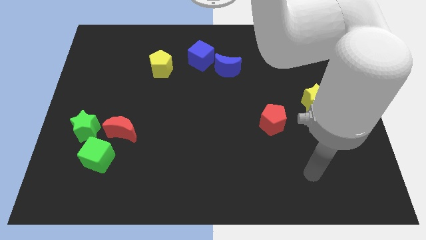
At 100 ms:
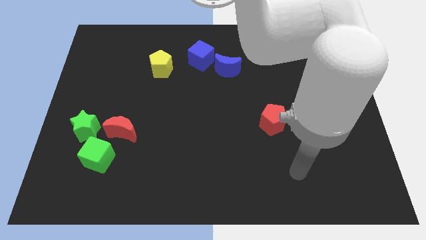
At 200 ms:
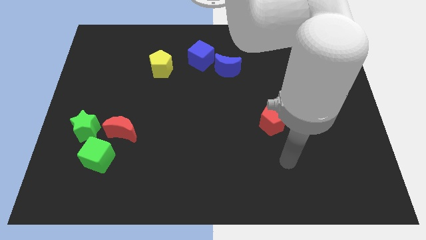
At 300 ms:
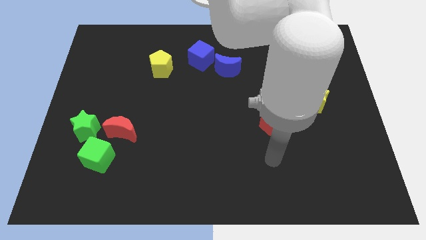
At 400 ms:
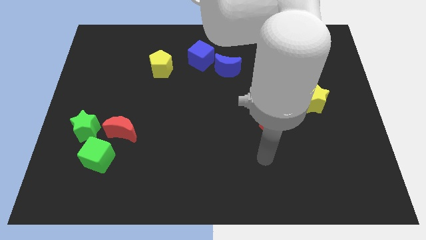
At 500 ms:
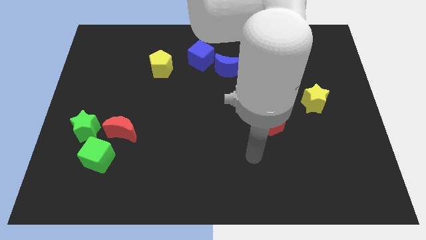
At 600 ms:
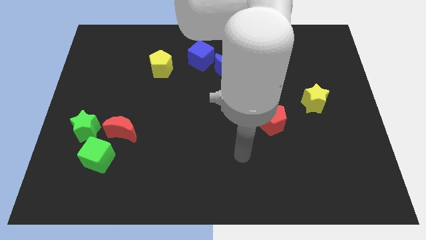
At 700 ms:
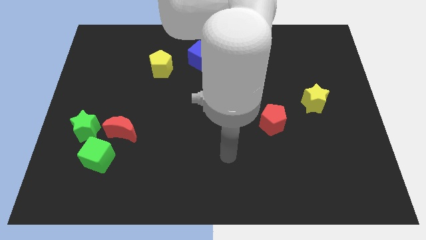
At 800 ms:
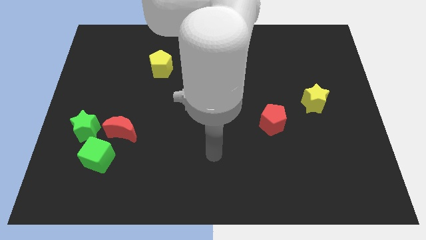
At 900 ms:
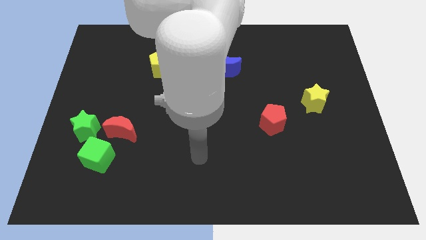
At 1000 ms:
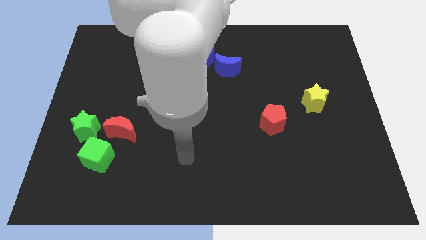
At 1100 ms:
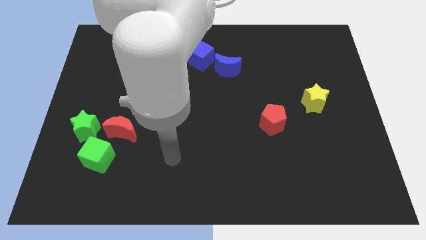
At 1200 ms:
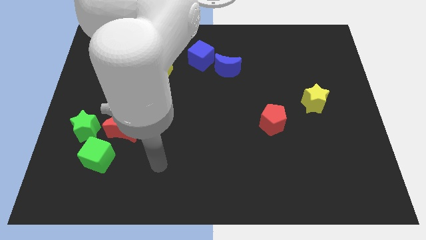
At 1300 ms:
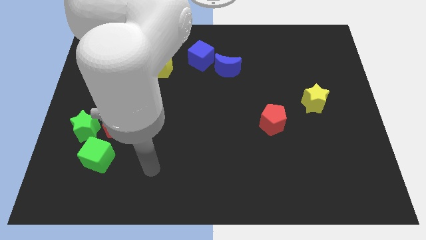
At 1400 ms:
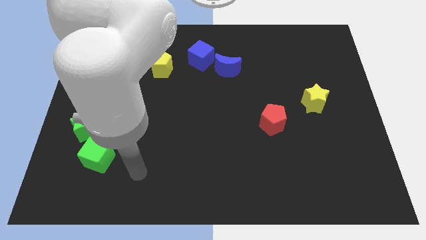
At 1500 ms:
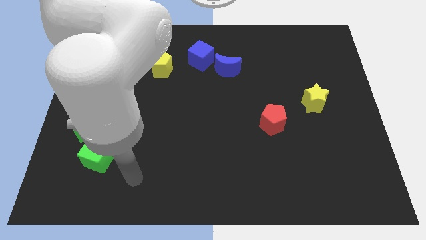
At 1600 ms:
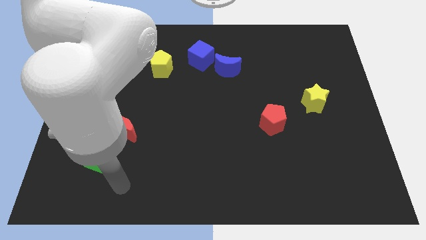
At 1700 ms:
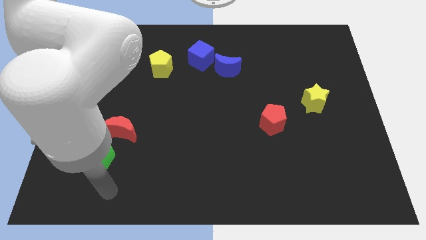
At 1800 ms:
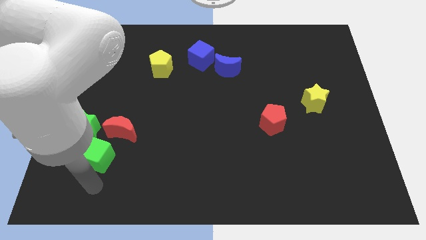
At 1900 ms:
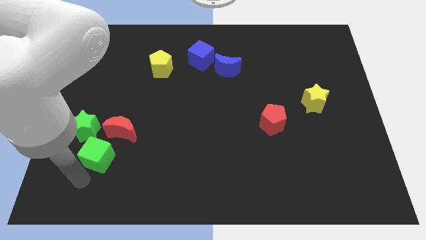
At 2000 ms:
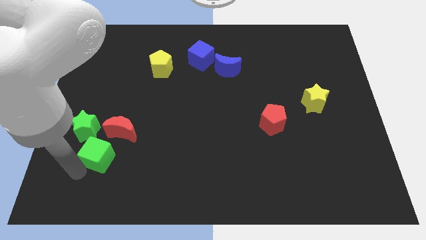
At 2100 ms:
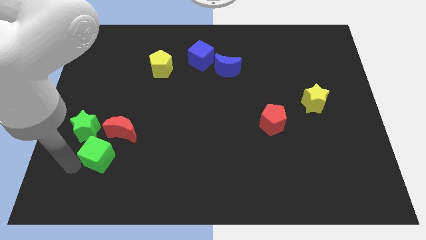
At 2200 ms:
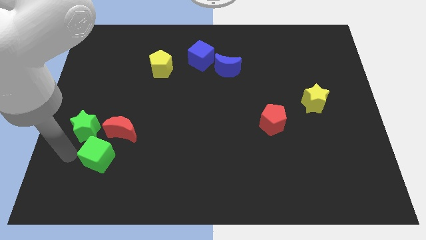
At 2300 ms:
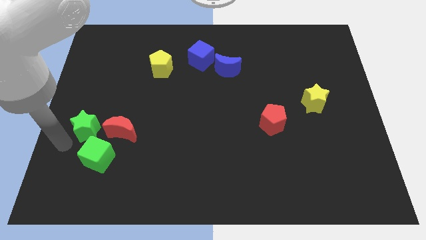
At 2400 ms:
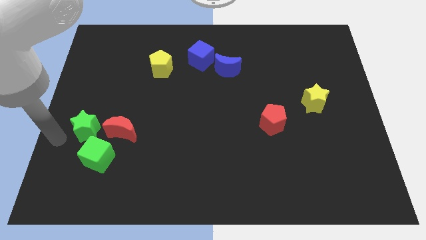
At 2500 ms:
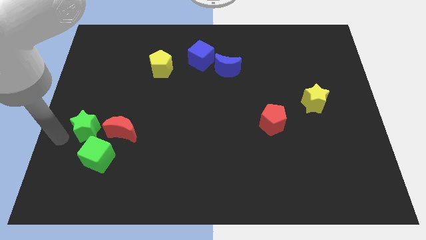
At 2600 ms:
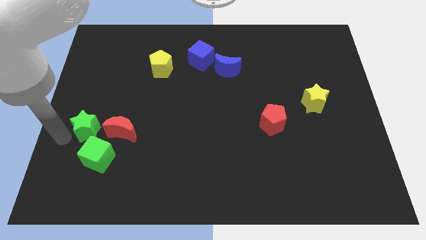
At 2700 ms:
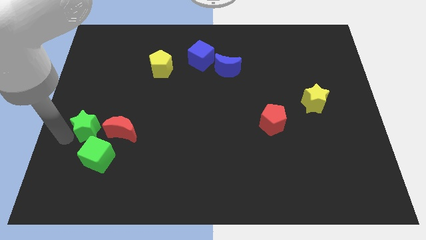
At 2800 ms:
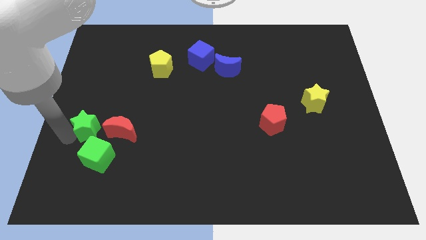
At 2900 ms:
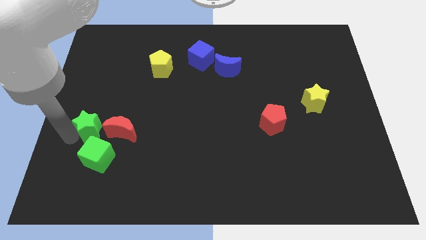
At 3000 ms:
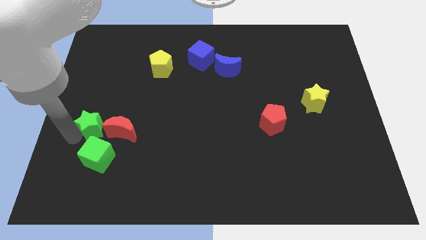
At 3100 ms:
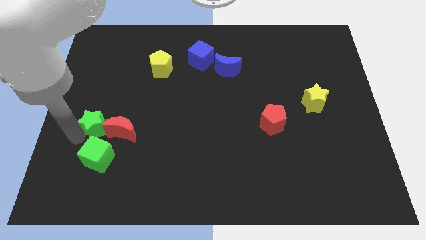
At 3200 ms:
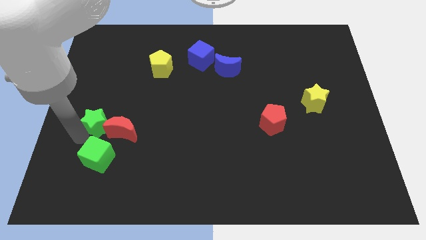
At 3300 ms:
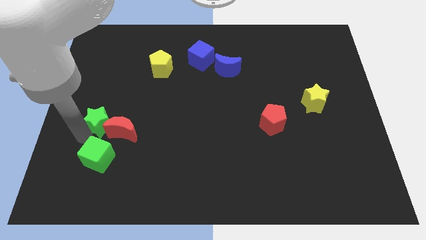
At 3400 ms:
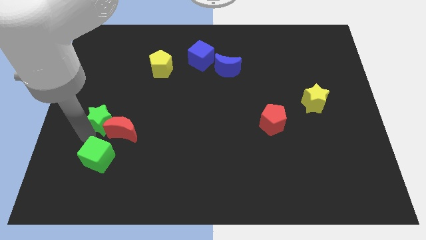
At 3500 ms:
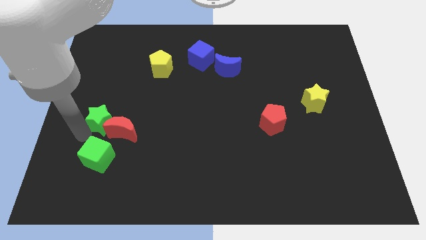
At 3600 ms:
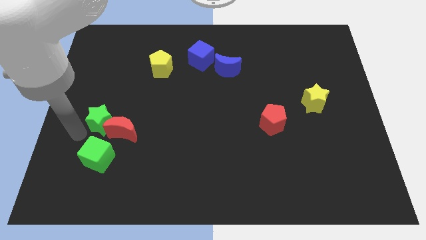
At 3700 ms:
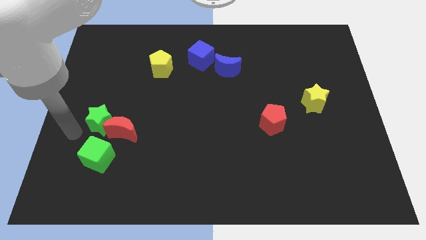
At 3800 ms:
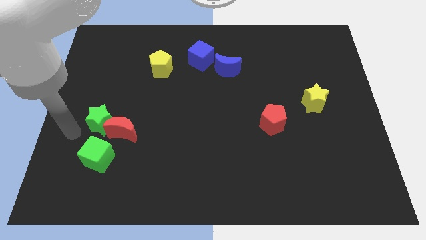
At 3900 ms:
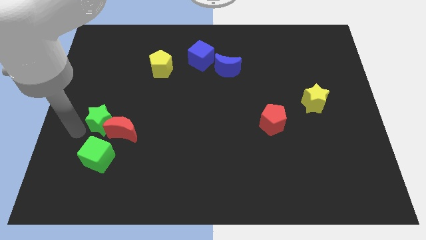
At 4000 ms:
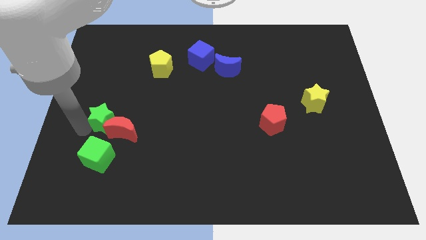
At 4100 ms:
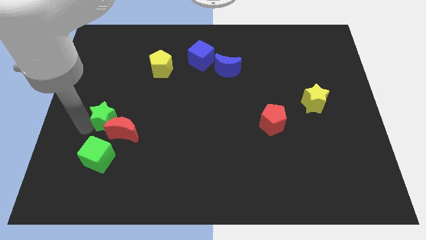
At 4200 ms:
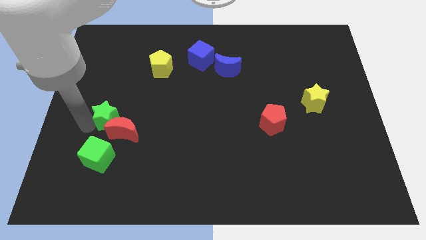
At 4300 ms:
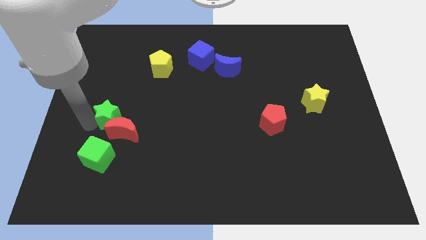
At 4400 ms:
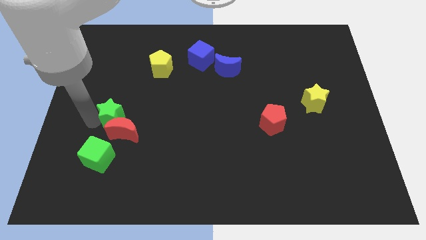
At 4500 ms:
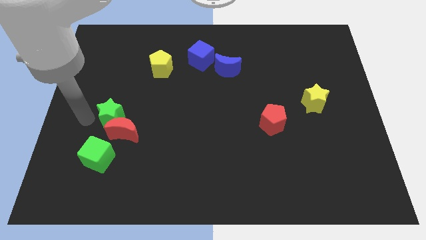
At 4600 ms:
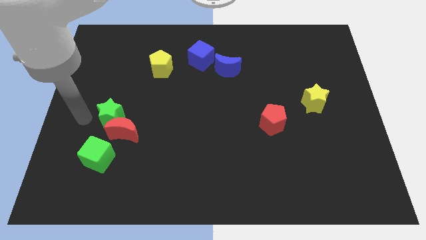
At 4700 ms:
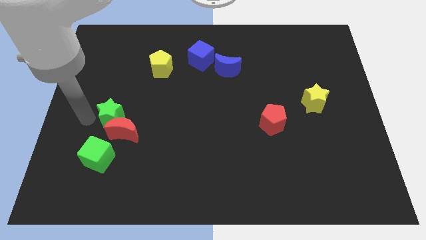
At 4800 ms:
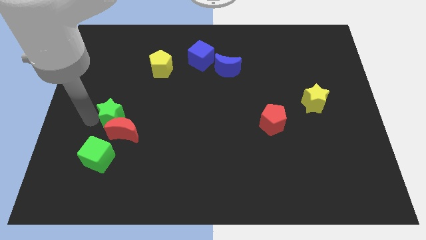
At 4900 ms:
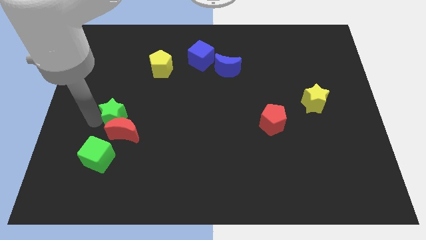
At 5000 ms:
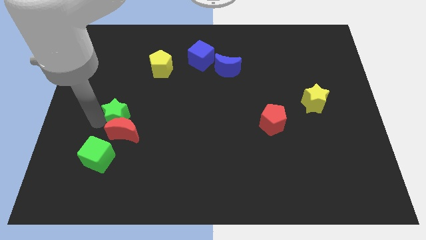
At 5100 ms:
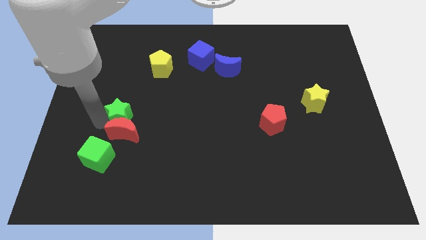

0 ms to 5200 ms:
slightly slide the green star right

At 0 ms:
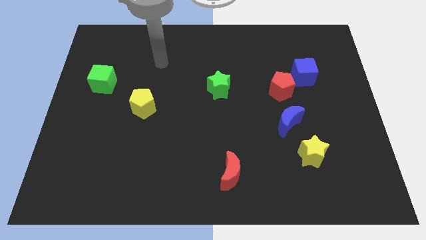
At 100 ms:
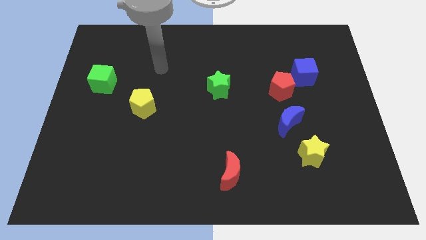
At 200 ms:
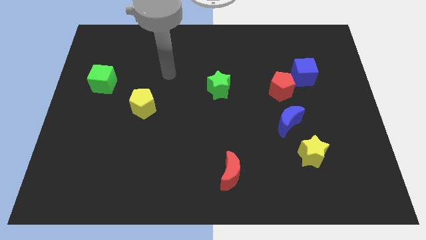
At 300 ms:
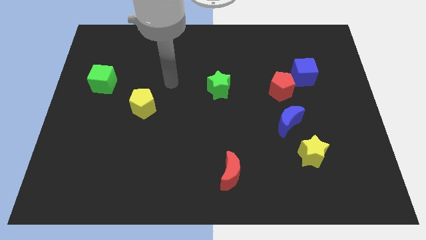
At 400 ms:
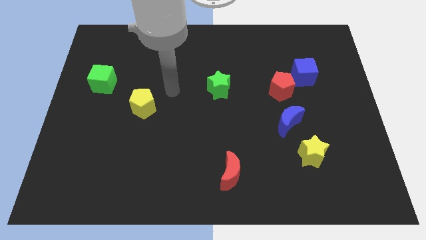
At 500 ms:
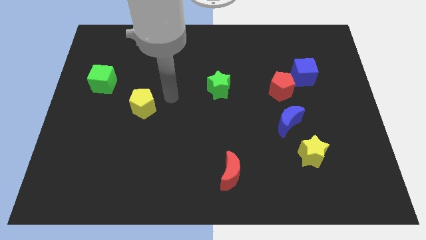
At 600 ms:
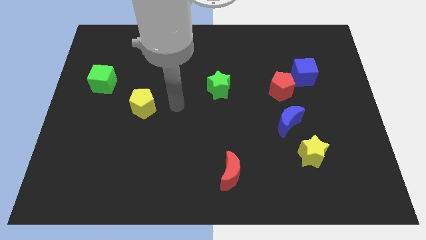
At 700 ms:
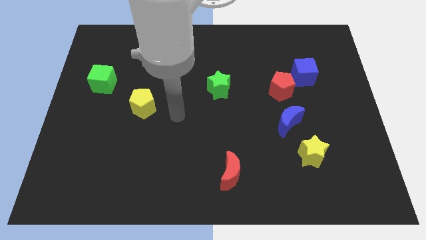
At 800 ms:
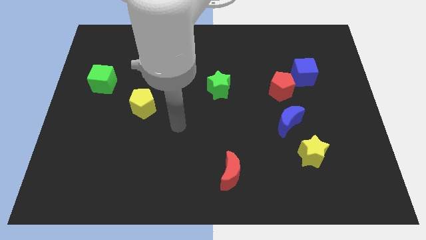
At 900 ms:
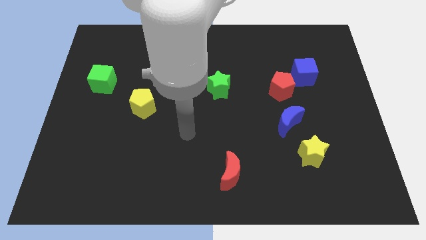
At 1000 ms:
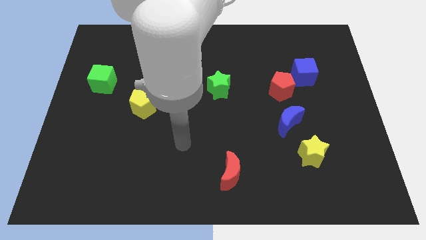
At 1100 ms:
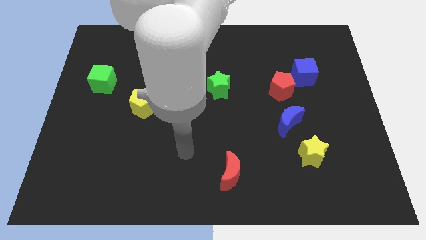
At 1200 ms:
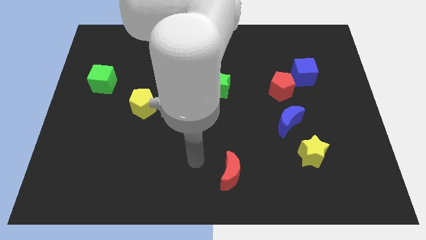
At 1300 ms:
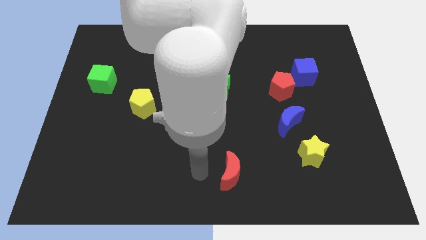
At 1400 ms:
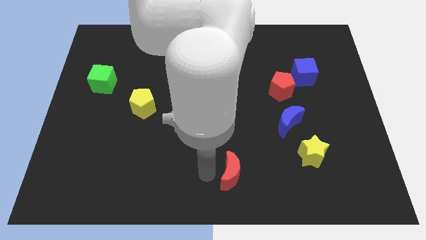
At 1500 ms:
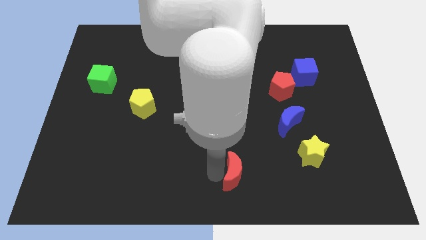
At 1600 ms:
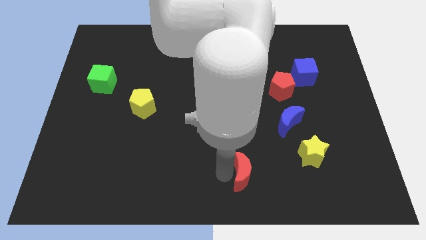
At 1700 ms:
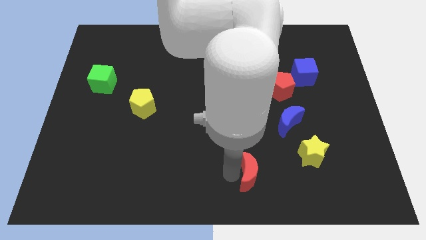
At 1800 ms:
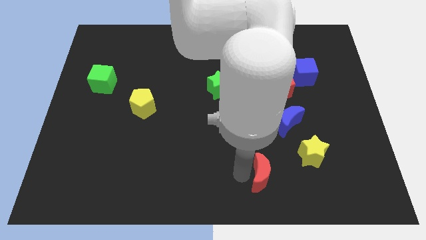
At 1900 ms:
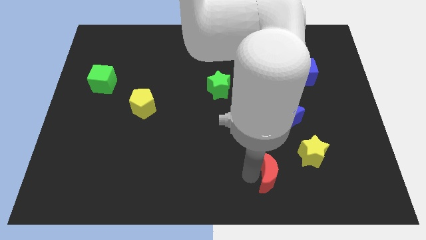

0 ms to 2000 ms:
push the red moon right slightly

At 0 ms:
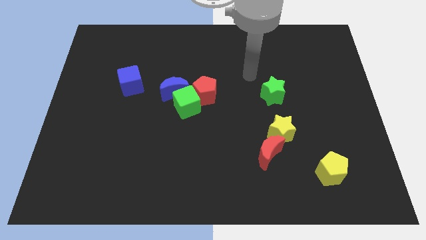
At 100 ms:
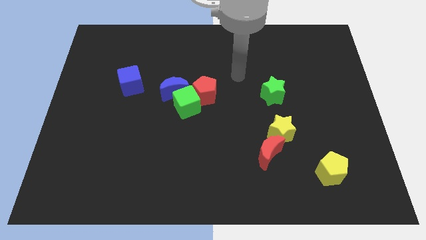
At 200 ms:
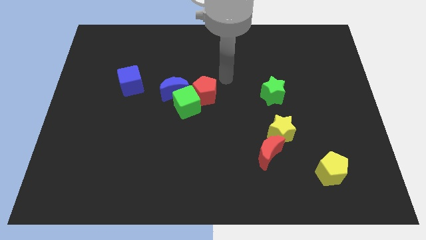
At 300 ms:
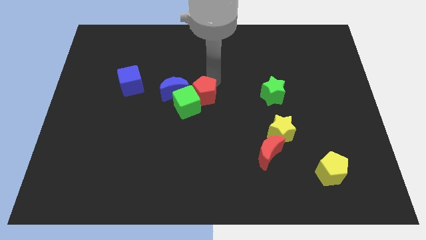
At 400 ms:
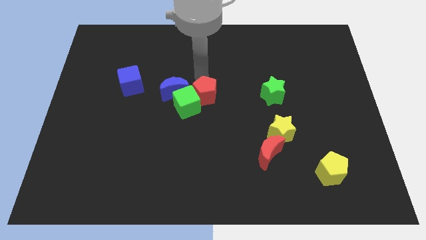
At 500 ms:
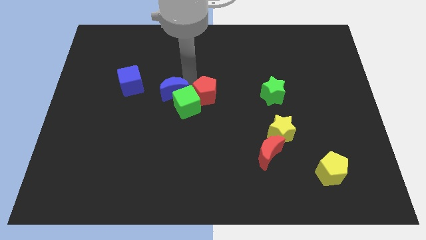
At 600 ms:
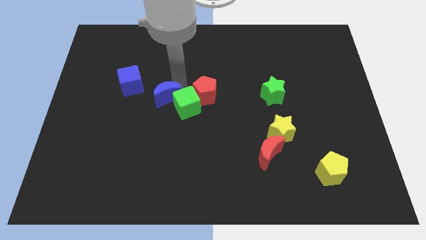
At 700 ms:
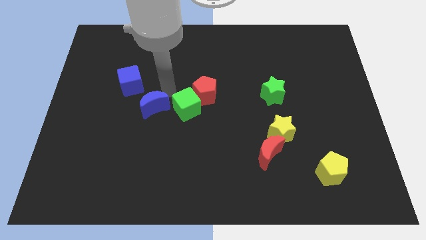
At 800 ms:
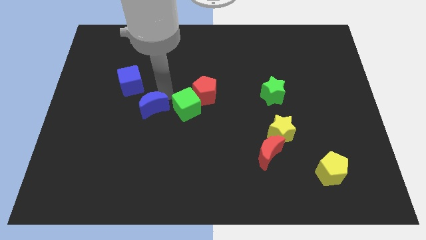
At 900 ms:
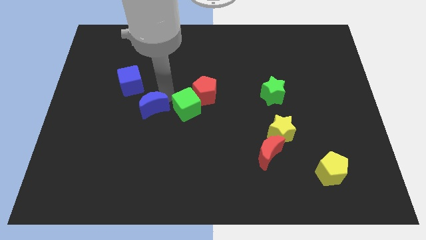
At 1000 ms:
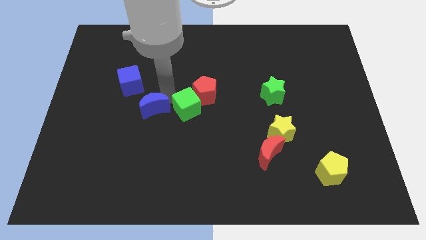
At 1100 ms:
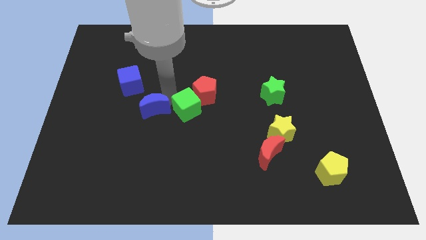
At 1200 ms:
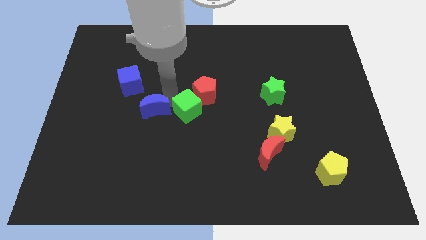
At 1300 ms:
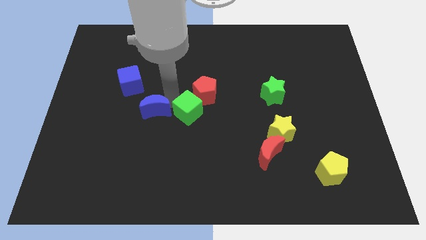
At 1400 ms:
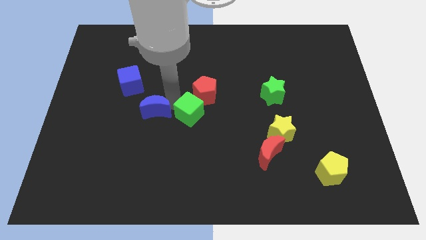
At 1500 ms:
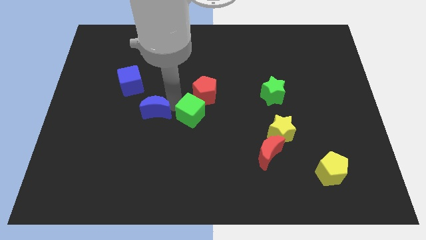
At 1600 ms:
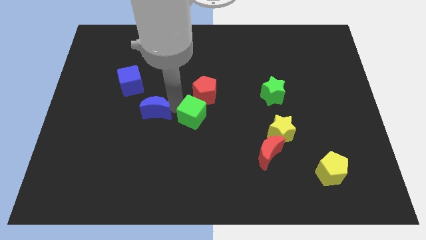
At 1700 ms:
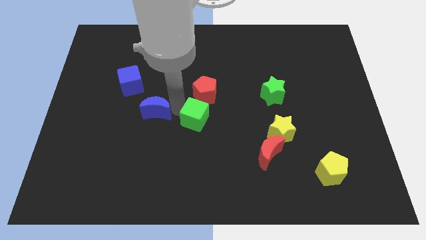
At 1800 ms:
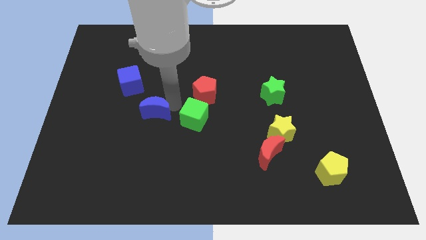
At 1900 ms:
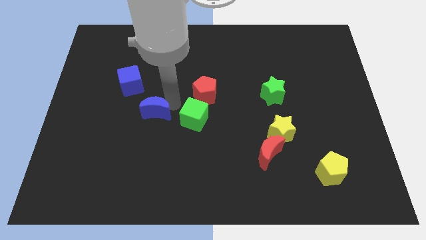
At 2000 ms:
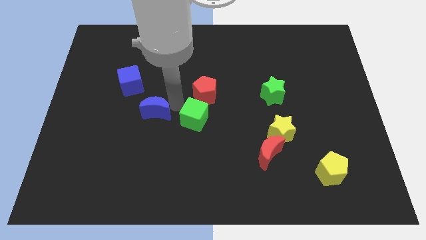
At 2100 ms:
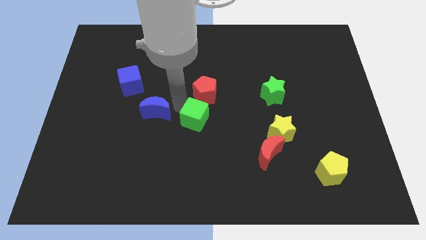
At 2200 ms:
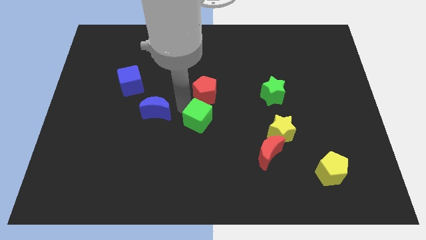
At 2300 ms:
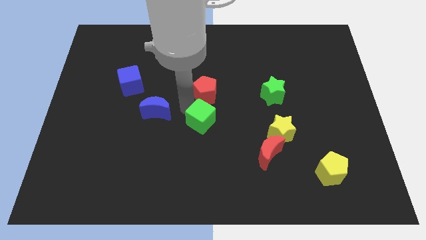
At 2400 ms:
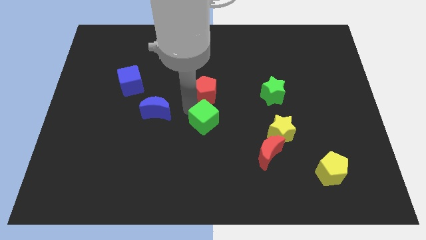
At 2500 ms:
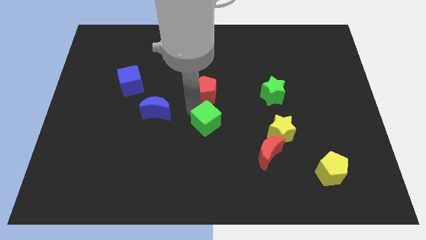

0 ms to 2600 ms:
slide the green cube somewhat downwards and to the right diagonally
